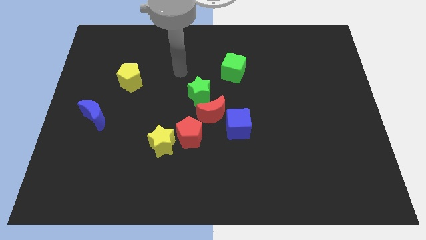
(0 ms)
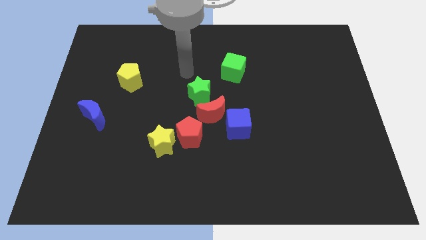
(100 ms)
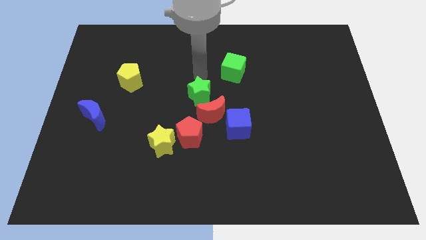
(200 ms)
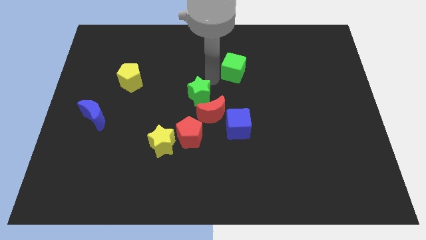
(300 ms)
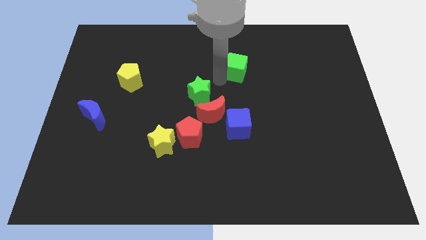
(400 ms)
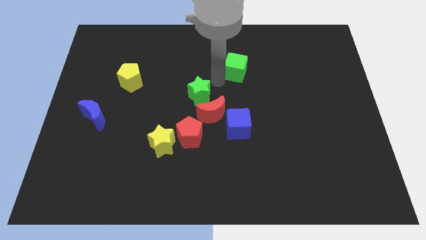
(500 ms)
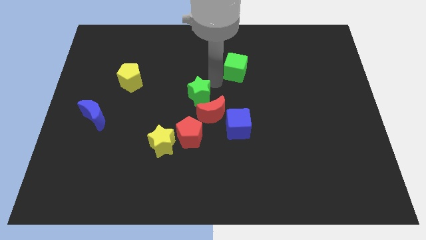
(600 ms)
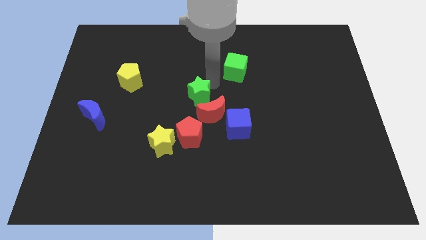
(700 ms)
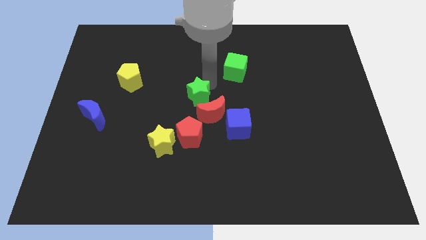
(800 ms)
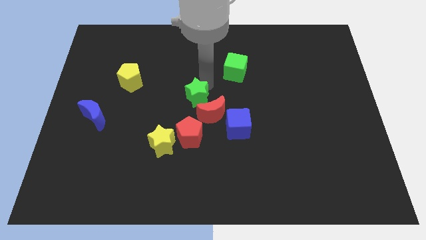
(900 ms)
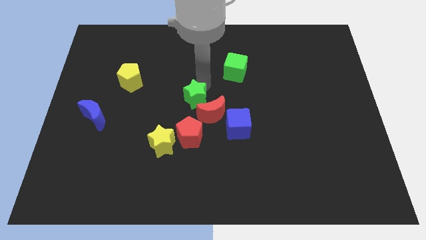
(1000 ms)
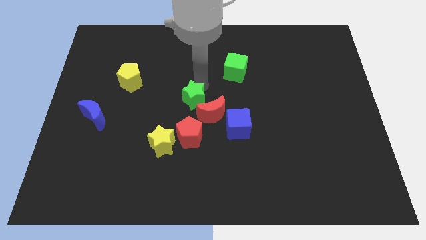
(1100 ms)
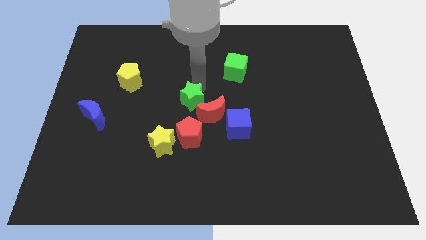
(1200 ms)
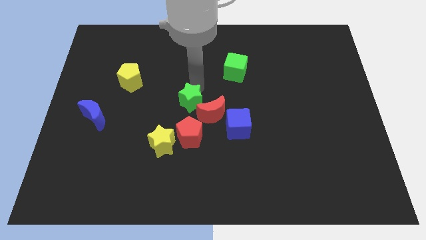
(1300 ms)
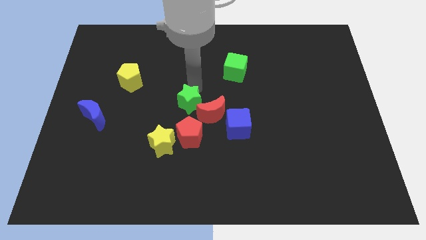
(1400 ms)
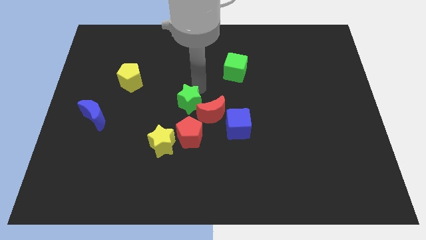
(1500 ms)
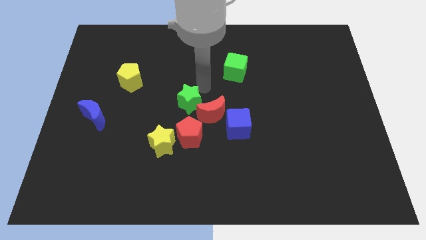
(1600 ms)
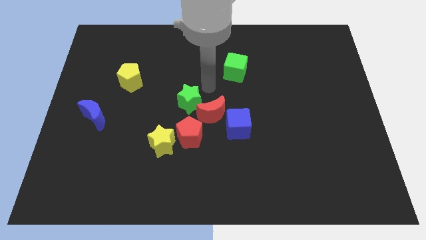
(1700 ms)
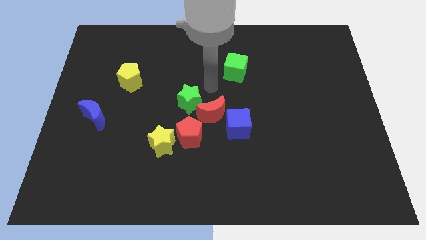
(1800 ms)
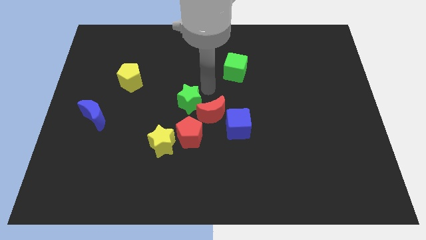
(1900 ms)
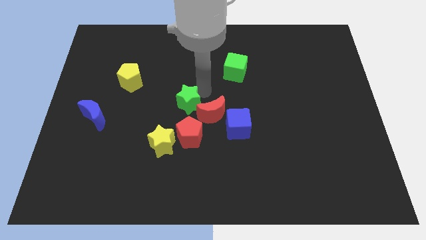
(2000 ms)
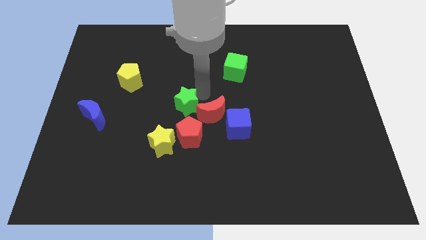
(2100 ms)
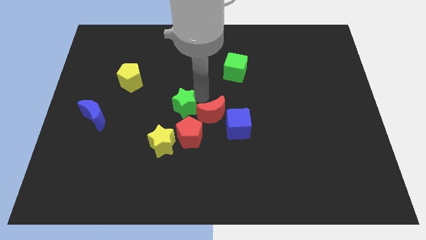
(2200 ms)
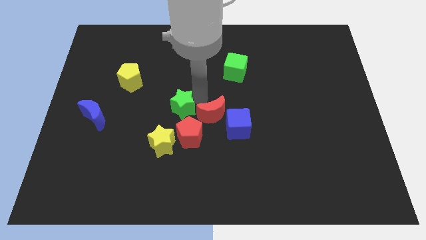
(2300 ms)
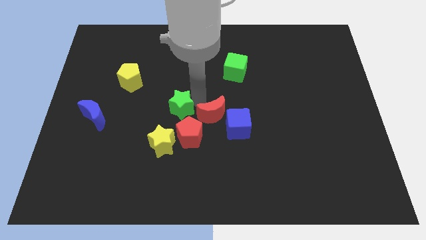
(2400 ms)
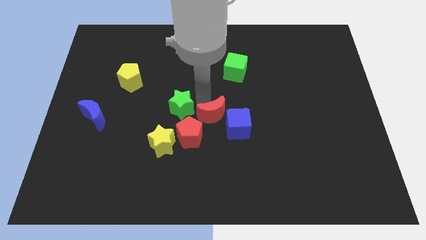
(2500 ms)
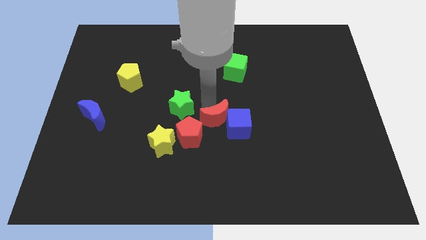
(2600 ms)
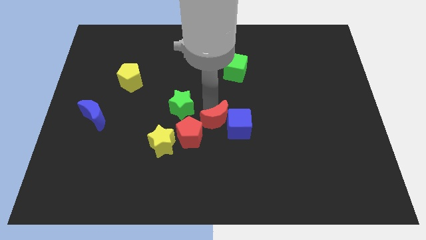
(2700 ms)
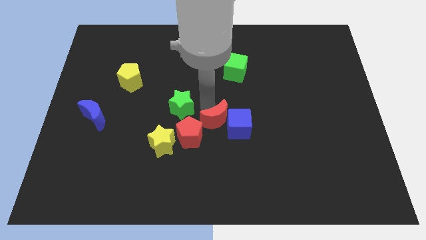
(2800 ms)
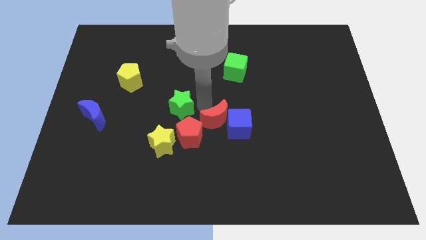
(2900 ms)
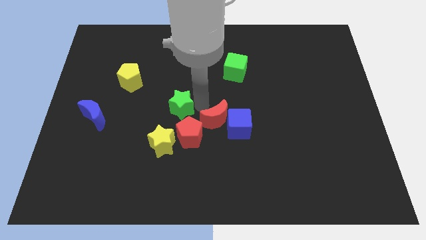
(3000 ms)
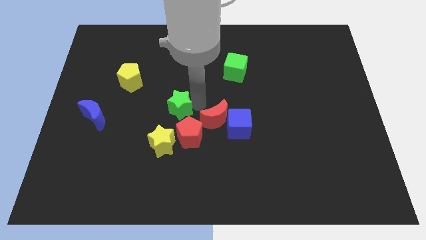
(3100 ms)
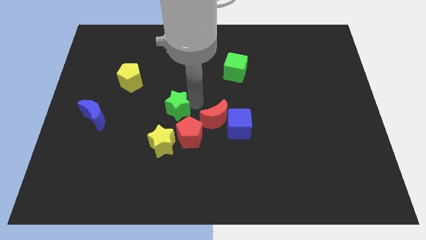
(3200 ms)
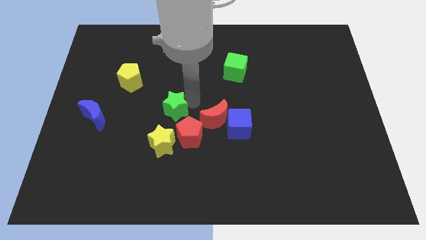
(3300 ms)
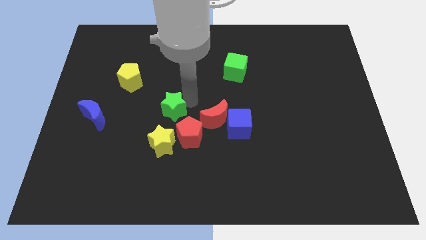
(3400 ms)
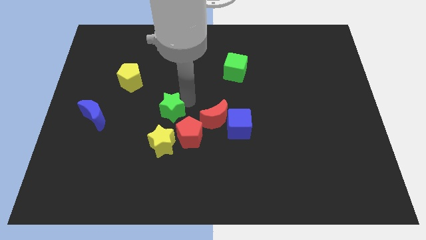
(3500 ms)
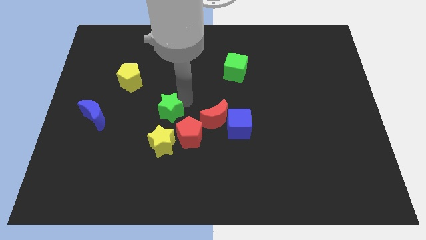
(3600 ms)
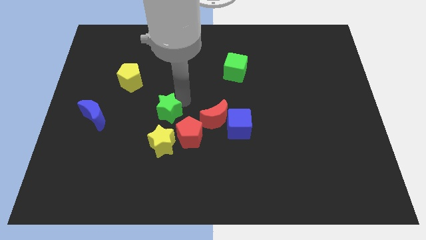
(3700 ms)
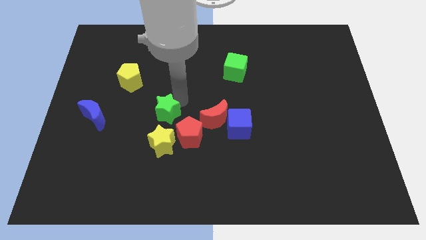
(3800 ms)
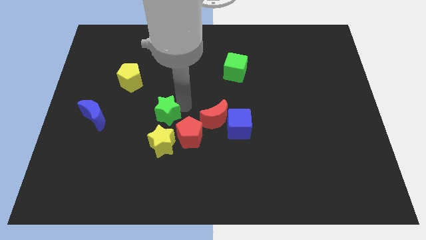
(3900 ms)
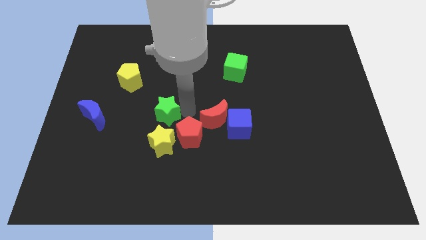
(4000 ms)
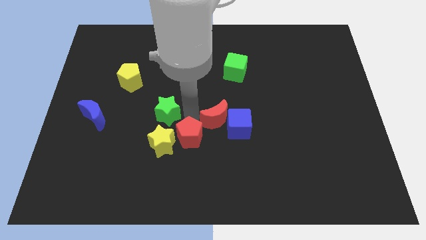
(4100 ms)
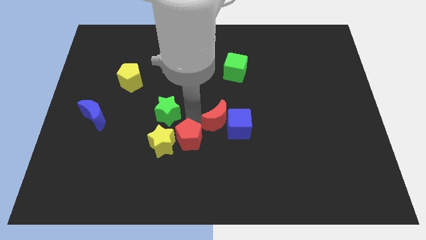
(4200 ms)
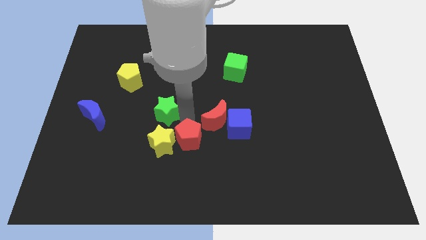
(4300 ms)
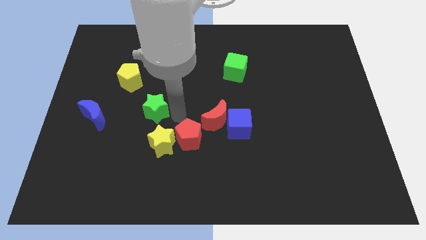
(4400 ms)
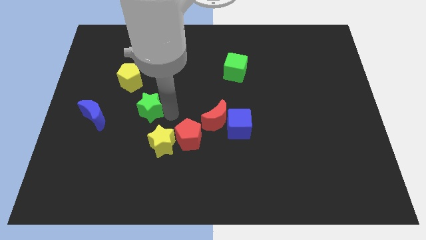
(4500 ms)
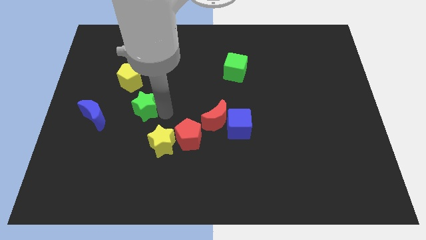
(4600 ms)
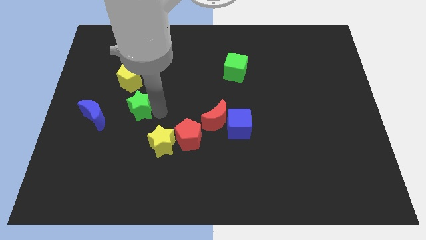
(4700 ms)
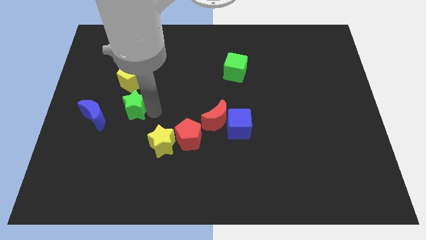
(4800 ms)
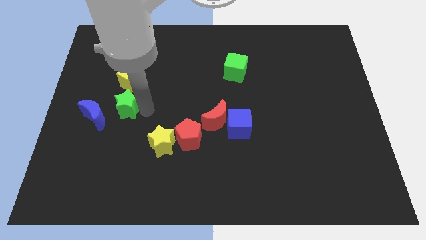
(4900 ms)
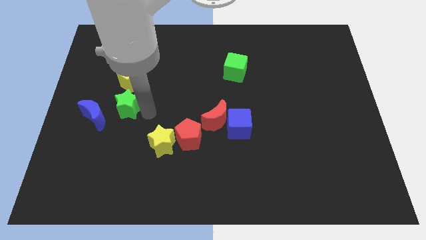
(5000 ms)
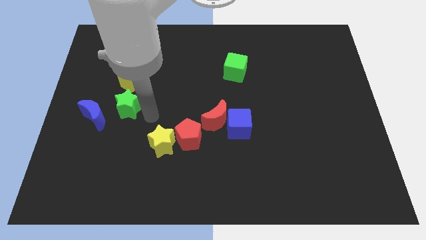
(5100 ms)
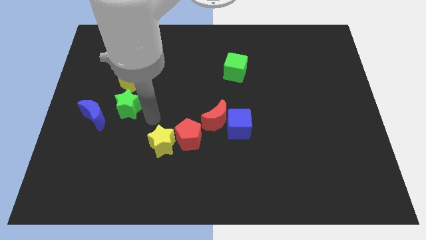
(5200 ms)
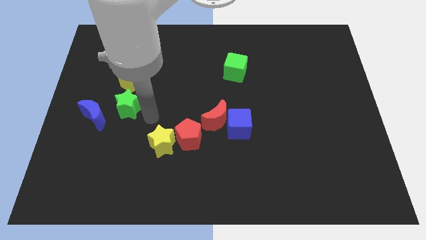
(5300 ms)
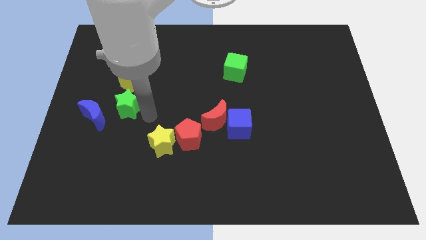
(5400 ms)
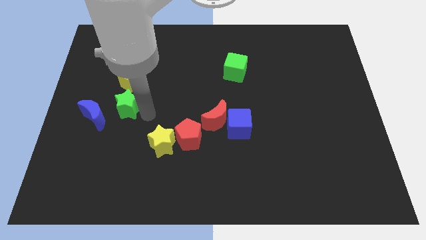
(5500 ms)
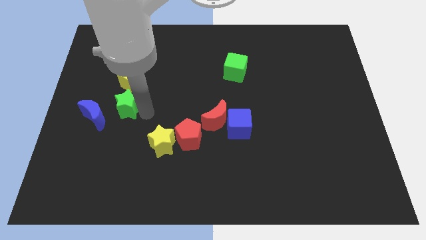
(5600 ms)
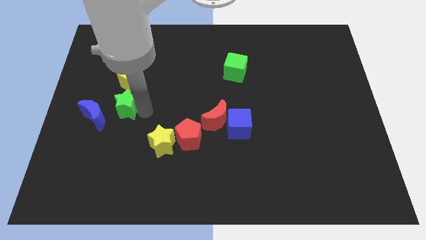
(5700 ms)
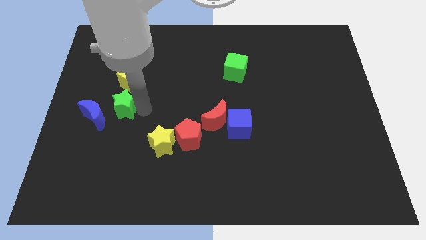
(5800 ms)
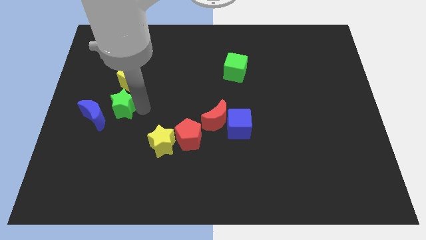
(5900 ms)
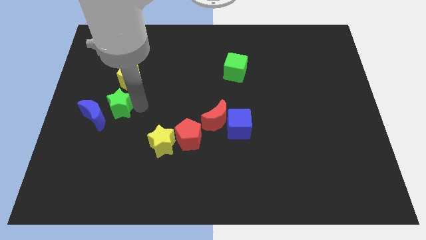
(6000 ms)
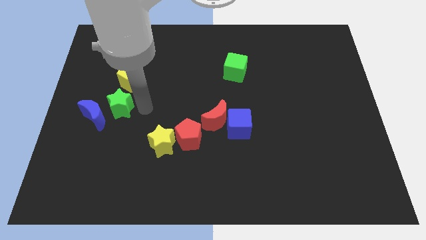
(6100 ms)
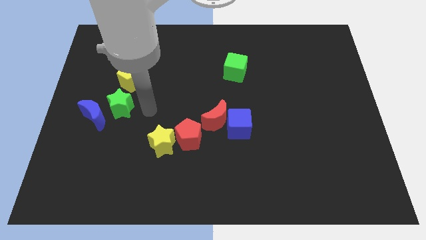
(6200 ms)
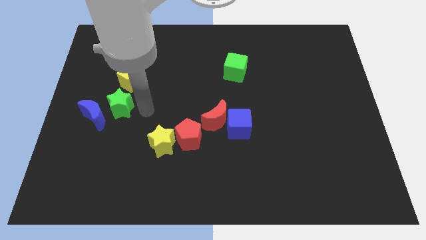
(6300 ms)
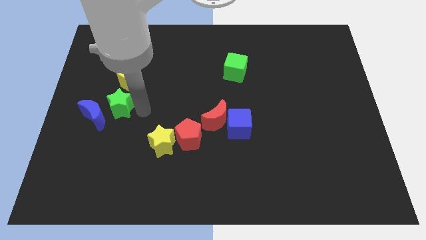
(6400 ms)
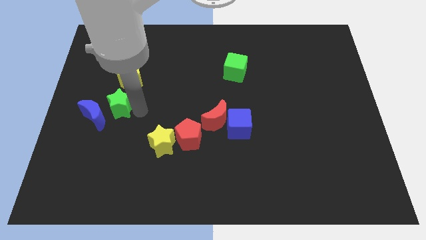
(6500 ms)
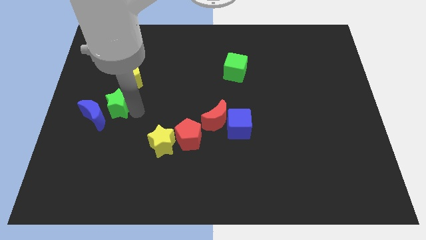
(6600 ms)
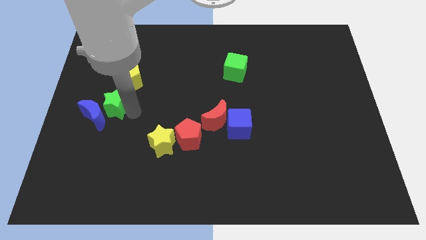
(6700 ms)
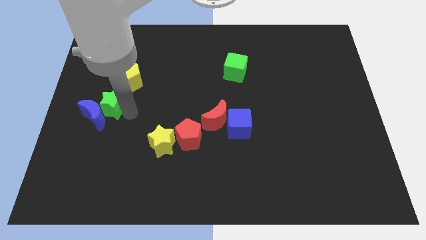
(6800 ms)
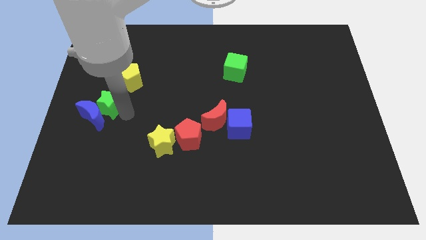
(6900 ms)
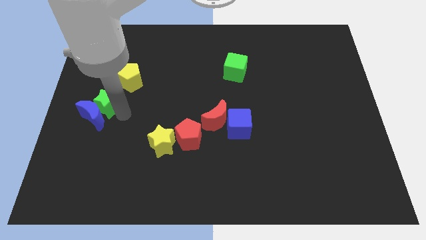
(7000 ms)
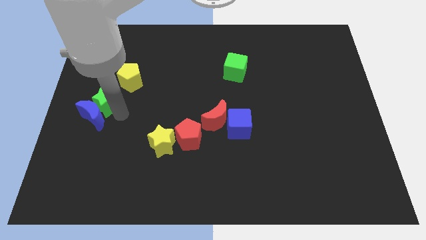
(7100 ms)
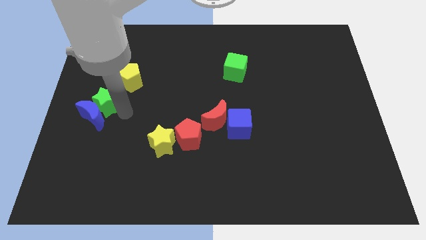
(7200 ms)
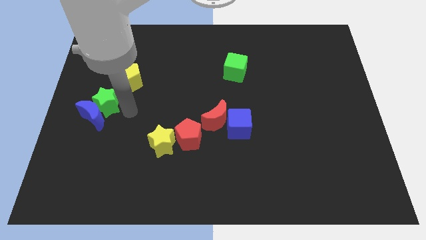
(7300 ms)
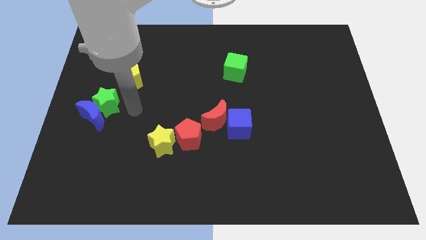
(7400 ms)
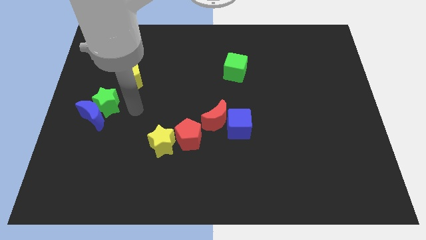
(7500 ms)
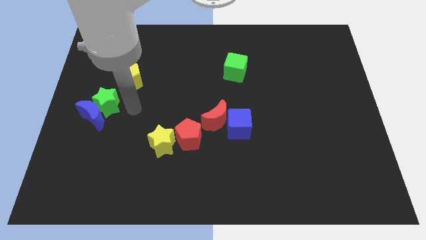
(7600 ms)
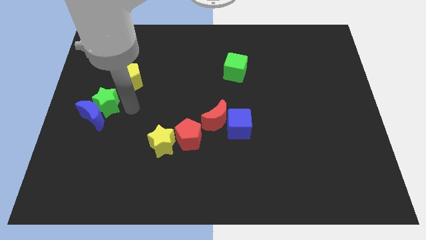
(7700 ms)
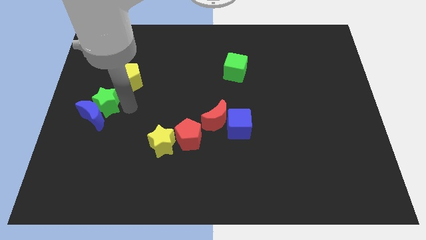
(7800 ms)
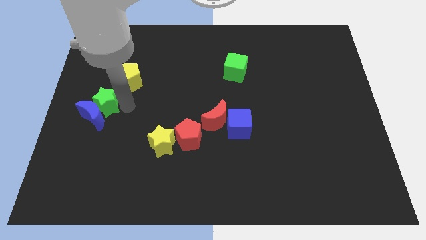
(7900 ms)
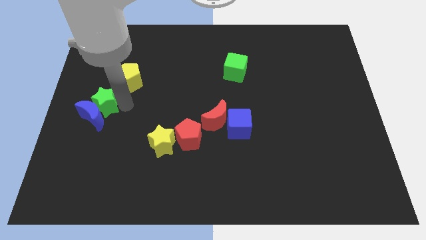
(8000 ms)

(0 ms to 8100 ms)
move the green star to the left side of the board
